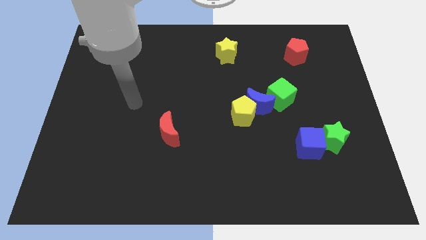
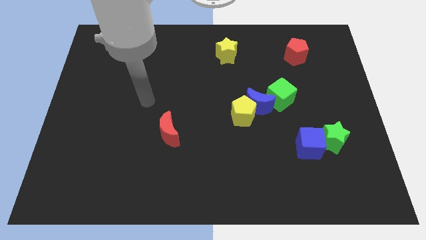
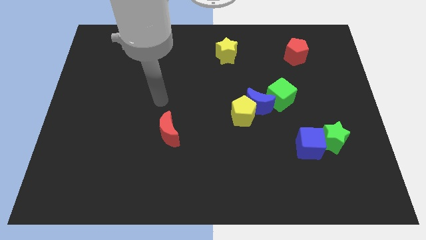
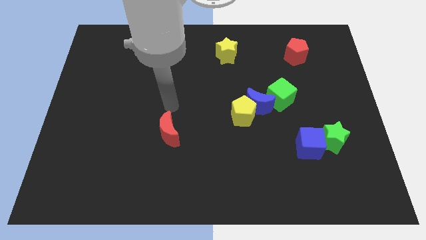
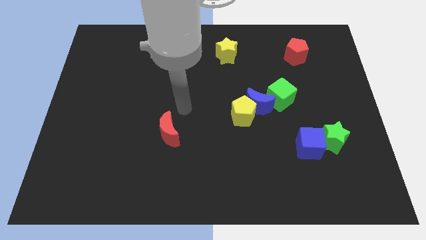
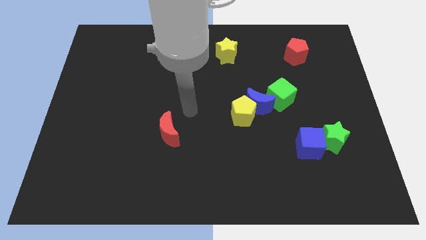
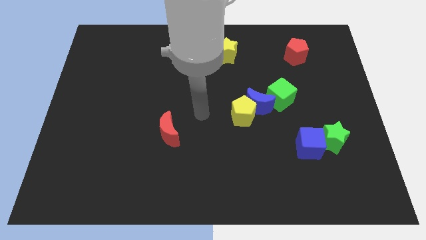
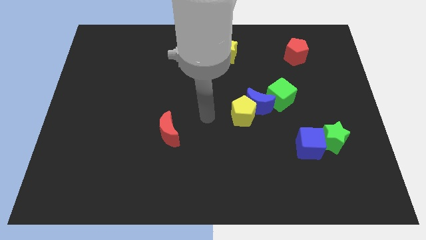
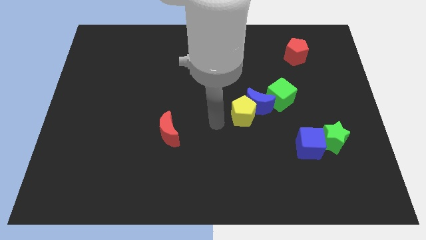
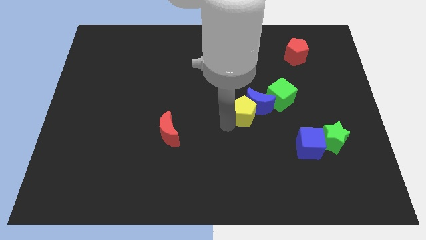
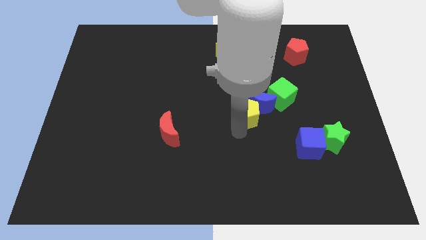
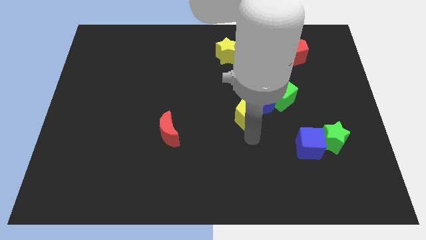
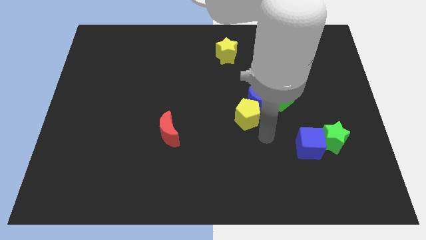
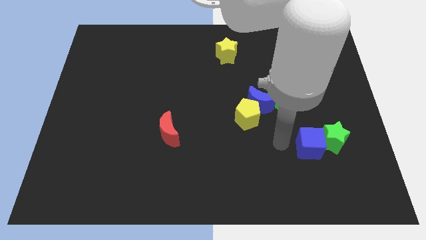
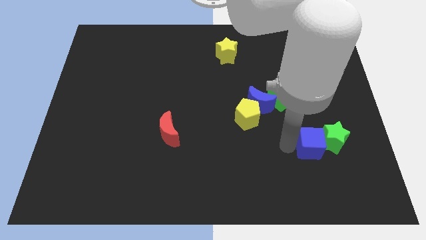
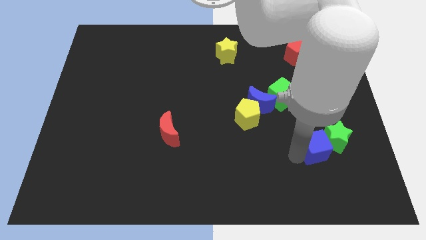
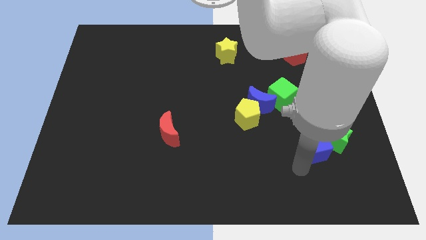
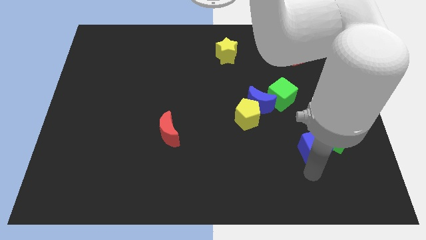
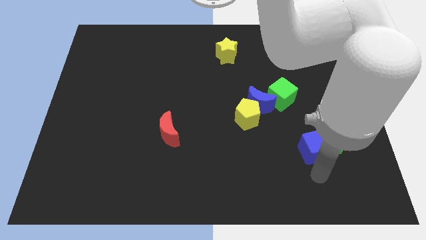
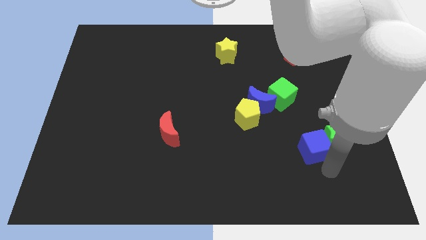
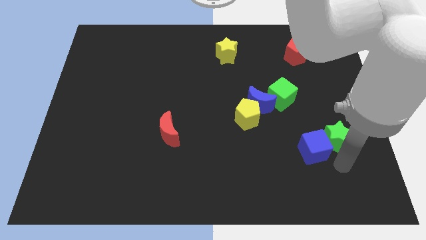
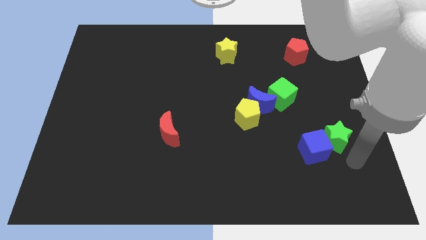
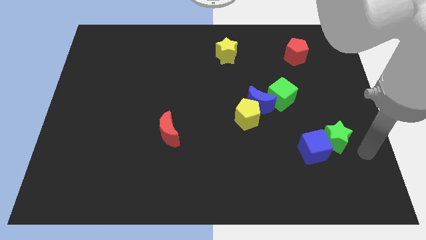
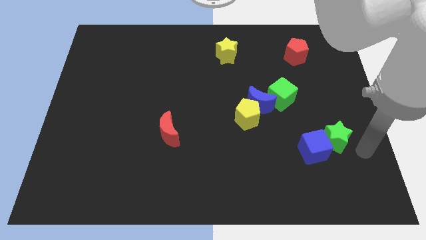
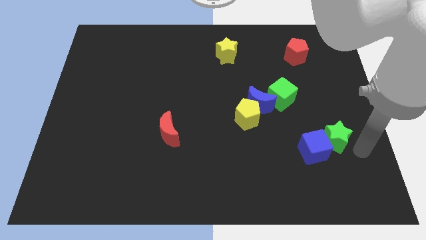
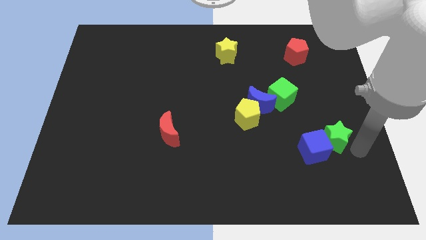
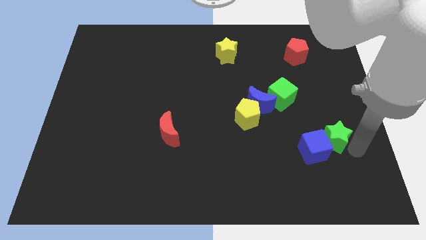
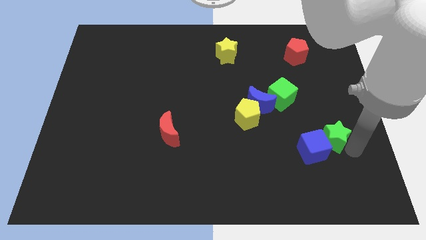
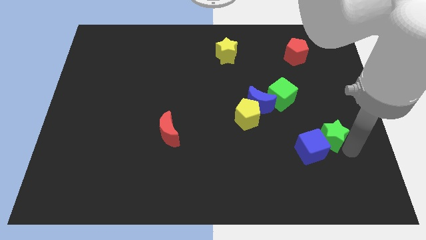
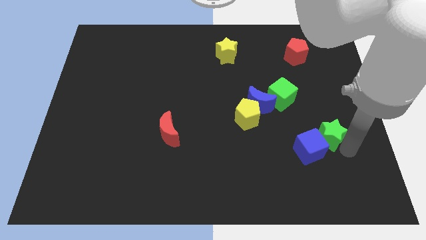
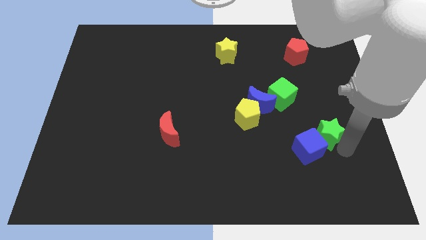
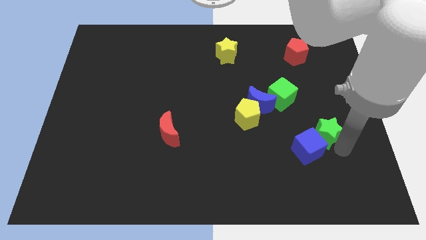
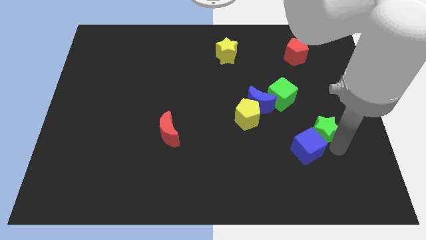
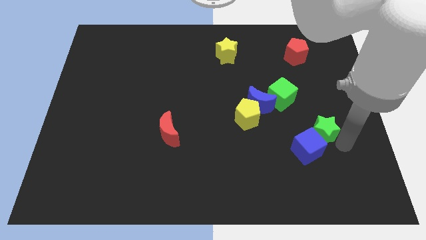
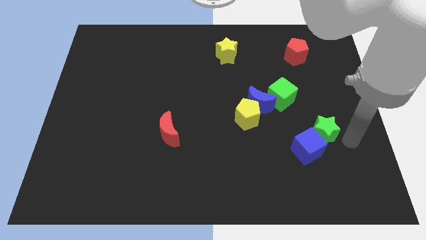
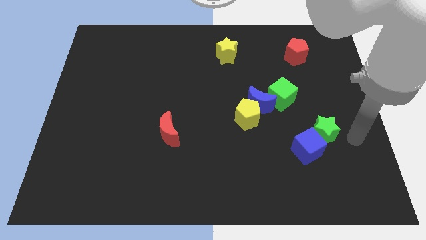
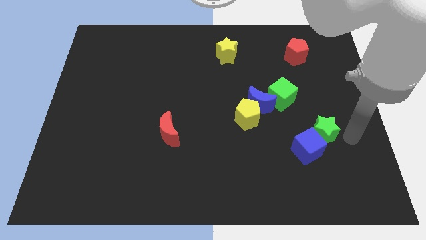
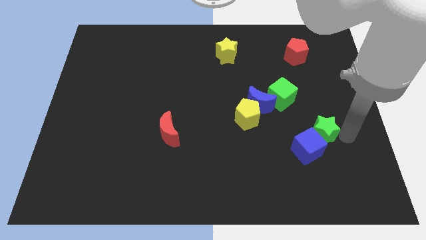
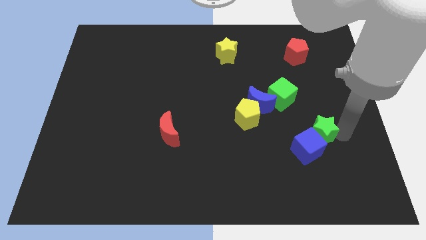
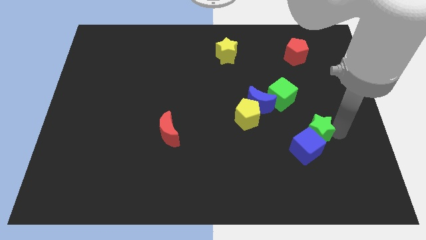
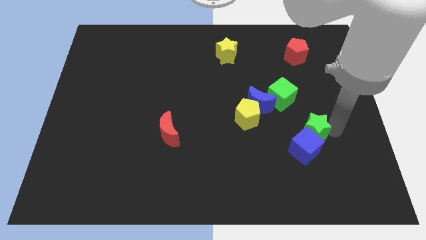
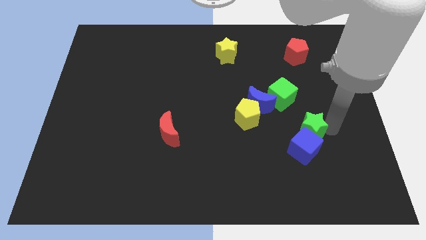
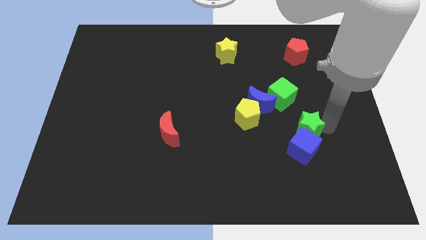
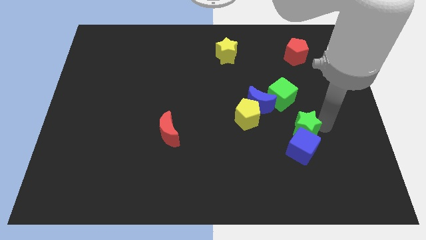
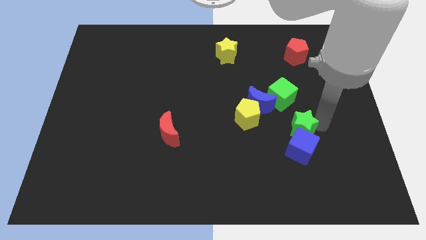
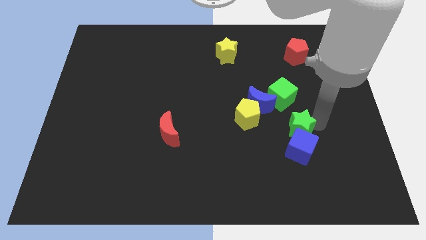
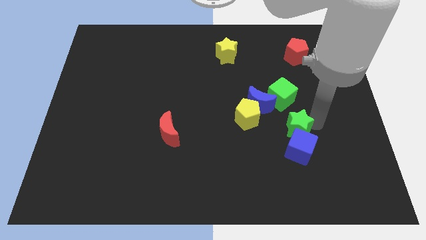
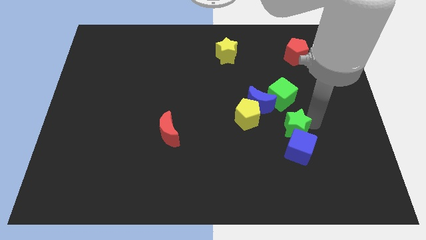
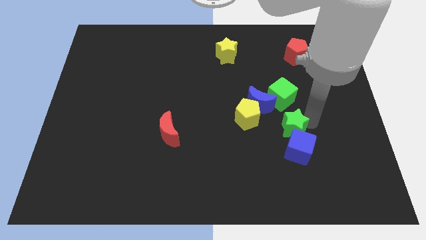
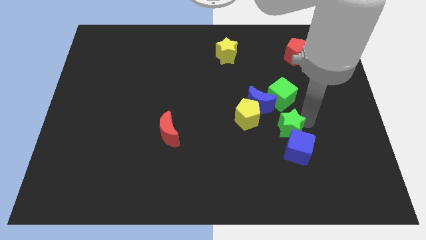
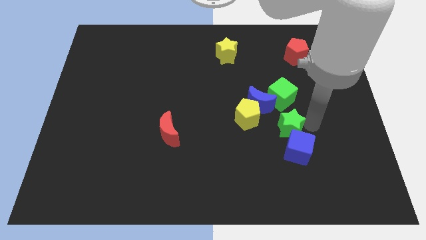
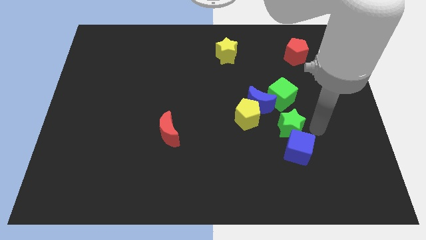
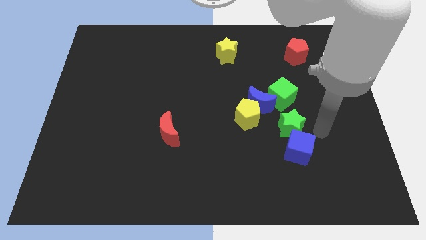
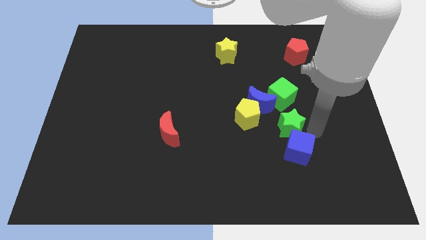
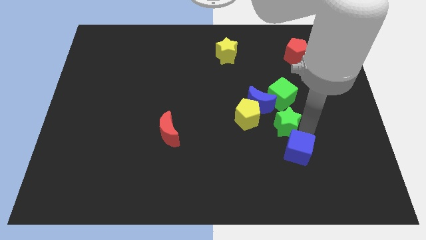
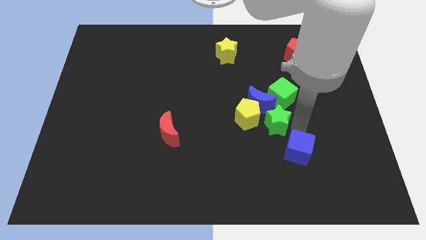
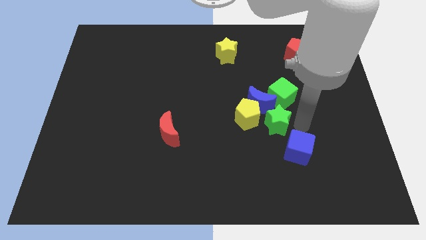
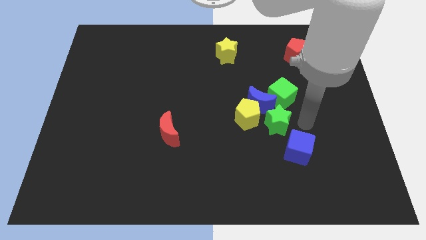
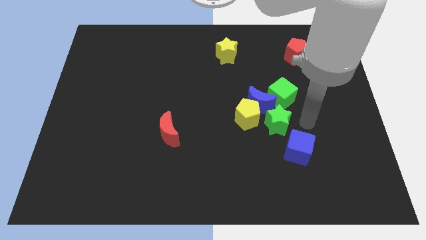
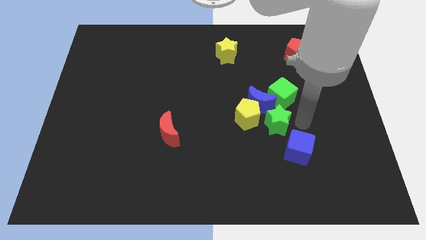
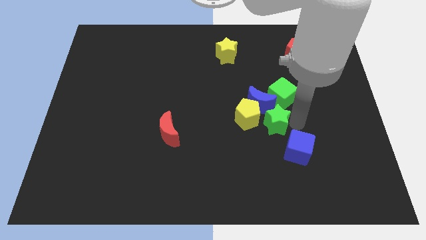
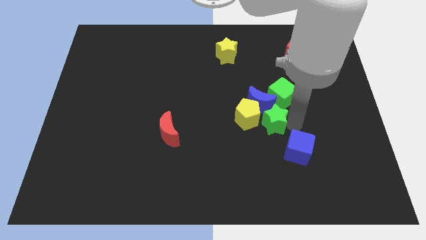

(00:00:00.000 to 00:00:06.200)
push the green star next to the yellow pentagon

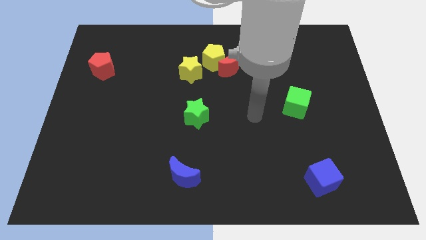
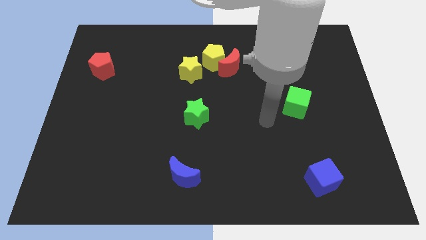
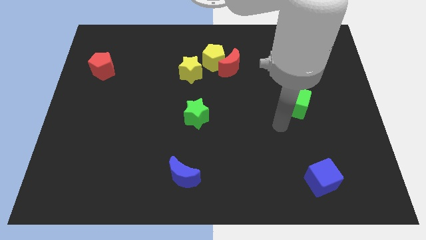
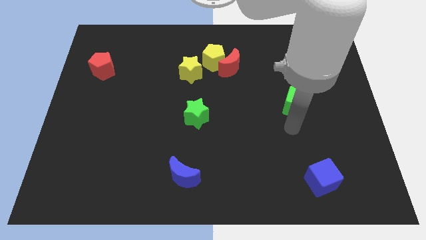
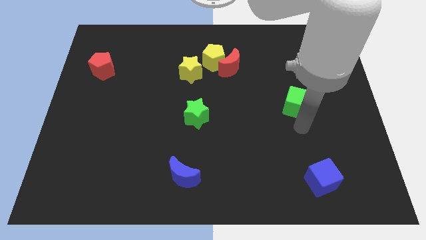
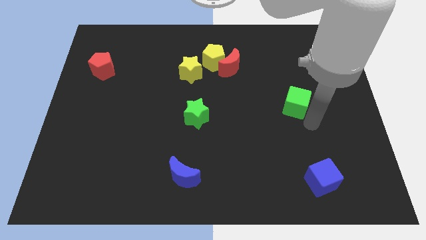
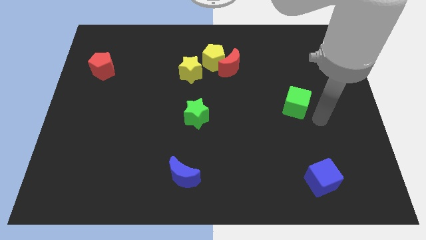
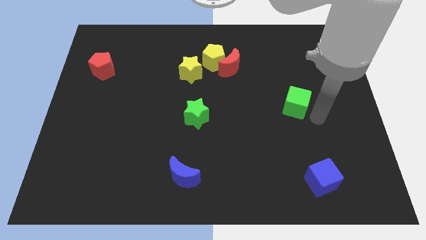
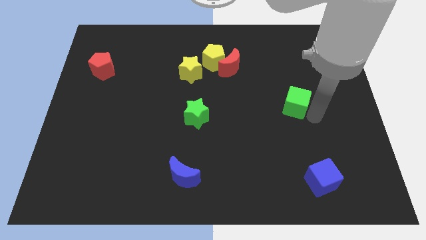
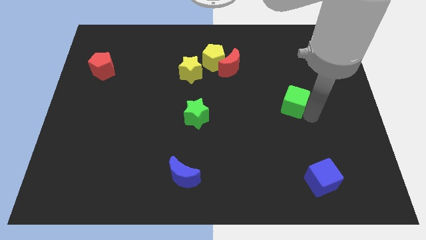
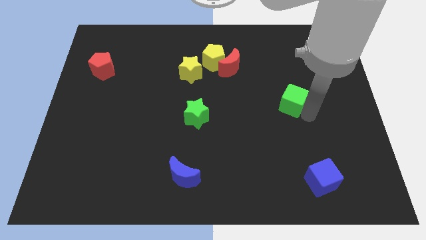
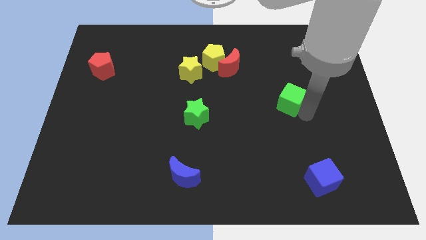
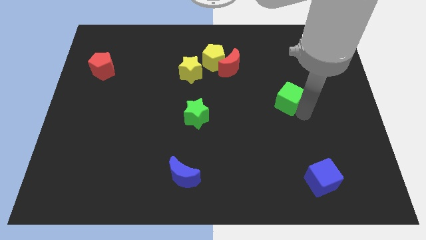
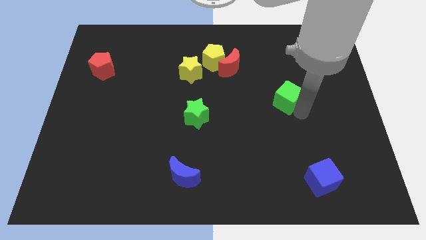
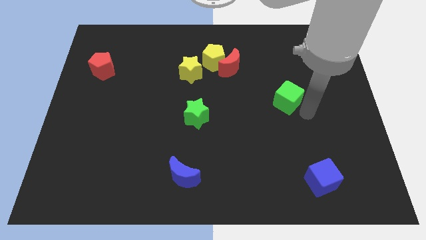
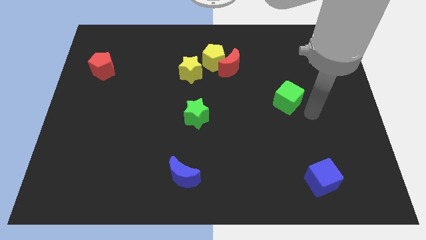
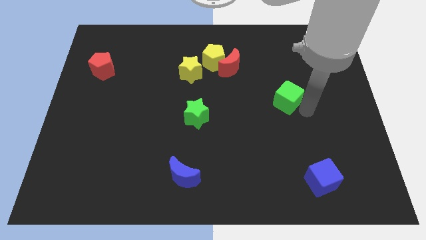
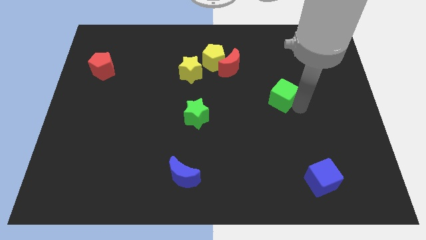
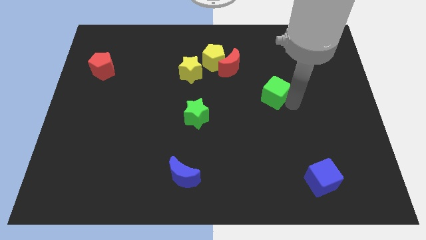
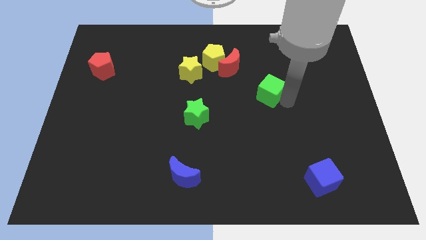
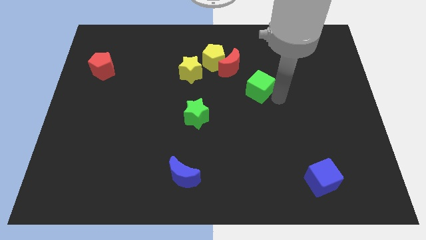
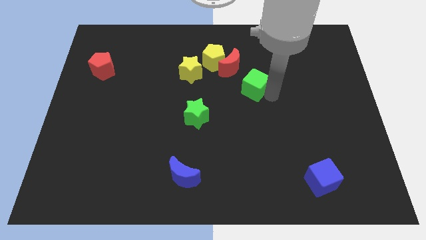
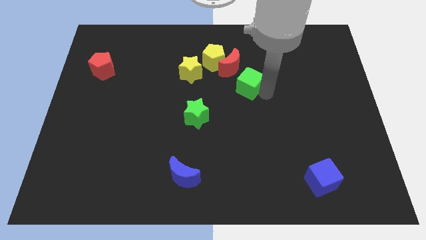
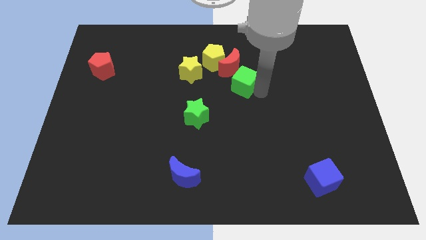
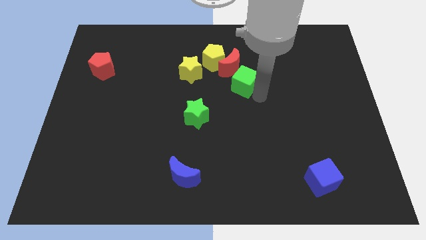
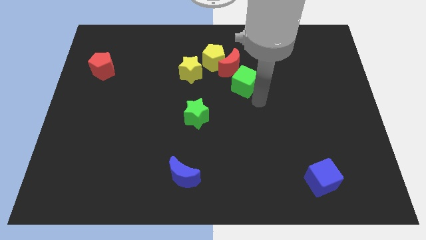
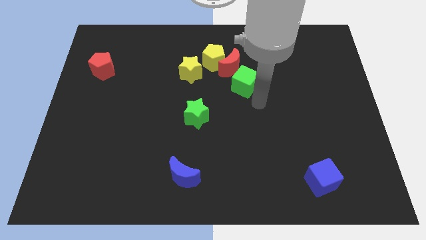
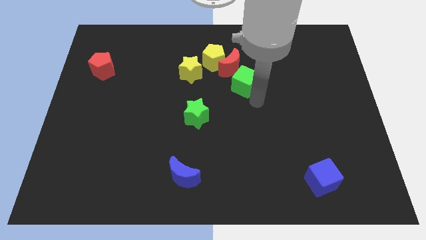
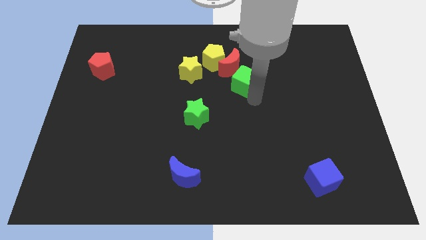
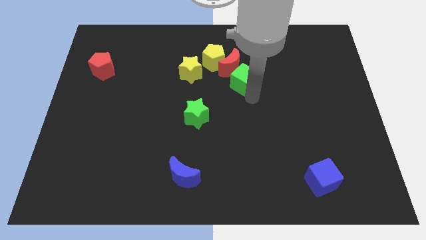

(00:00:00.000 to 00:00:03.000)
put the green cube towards the red moon
